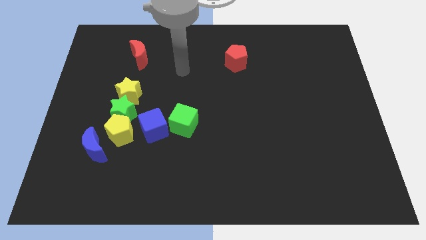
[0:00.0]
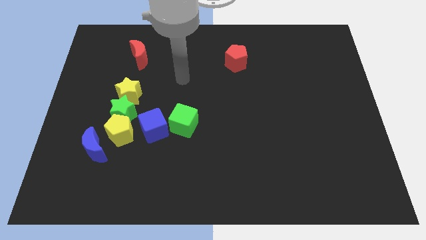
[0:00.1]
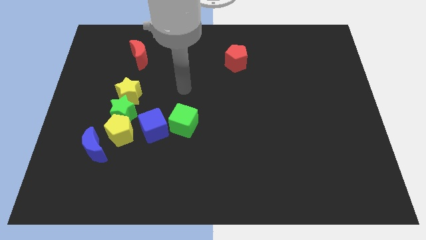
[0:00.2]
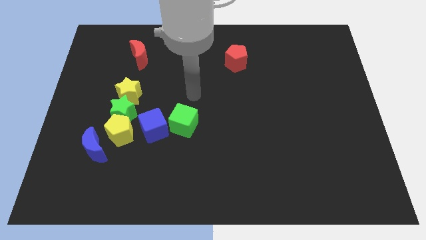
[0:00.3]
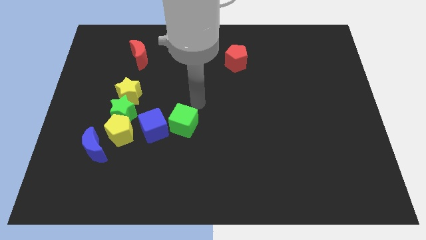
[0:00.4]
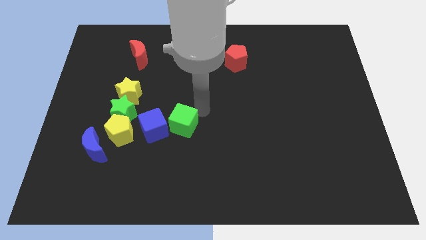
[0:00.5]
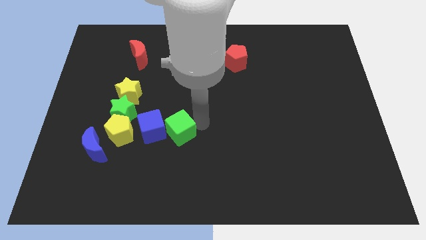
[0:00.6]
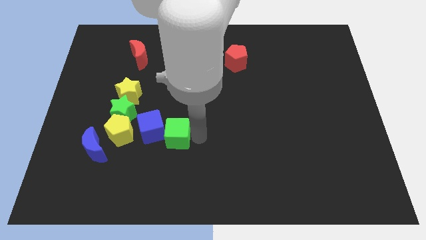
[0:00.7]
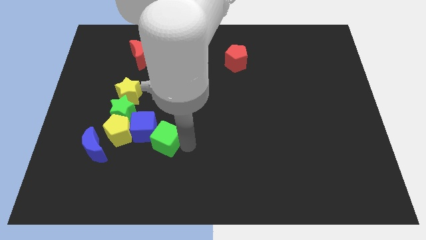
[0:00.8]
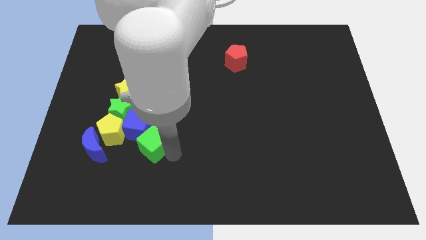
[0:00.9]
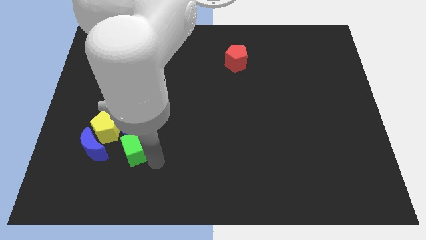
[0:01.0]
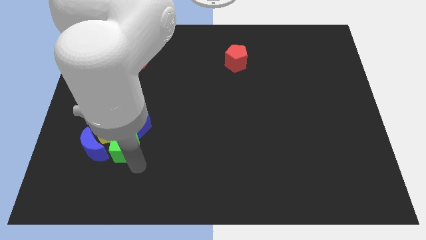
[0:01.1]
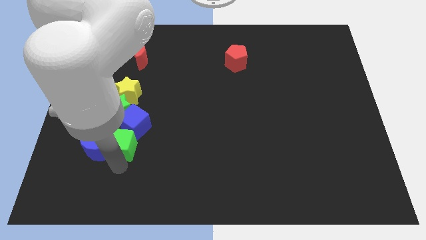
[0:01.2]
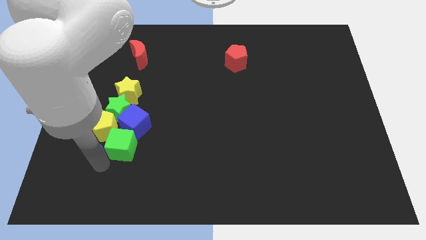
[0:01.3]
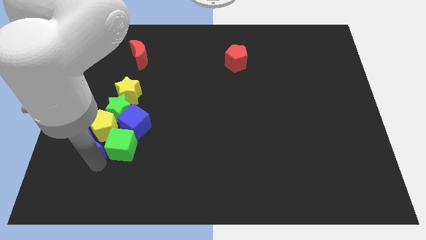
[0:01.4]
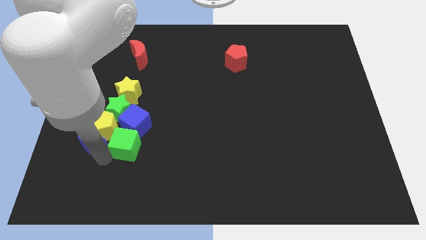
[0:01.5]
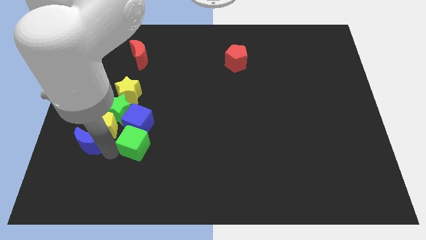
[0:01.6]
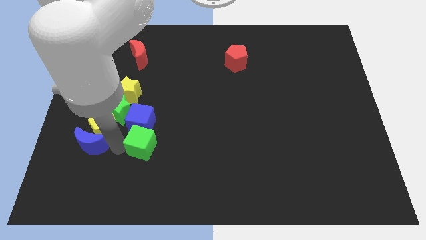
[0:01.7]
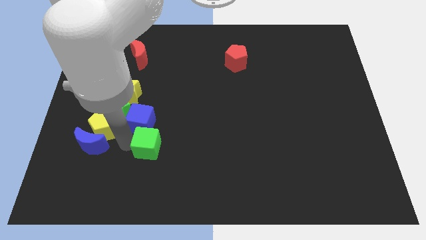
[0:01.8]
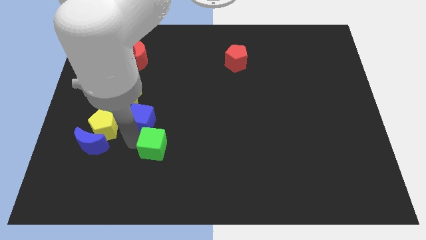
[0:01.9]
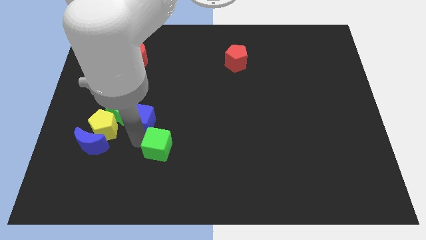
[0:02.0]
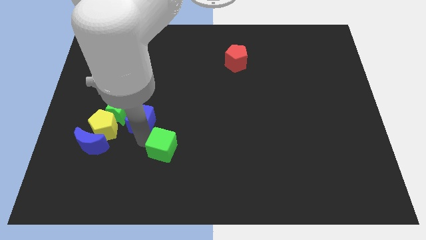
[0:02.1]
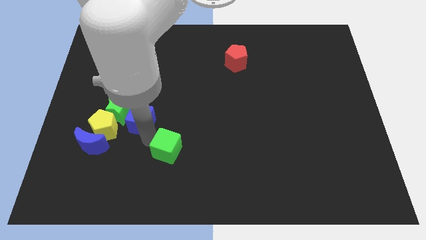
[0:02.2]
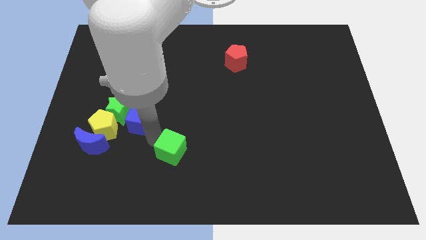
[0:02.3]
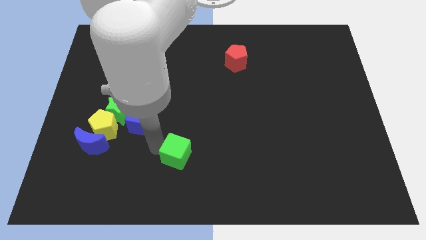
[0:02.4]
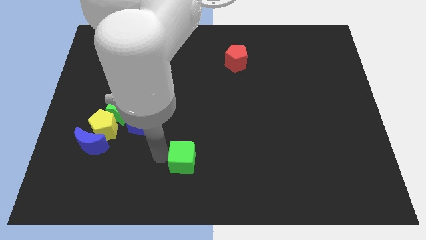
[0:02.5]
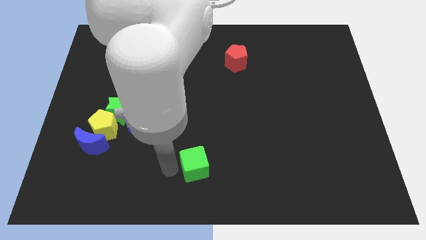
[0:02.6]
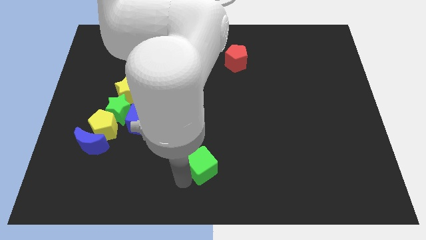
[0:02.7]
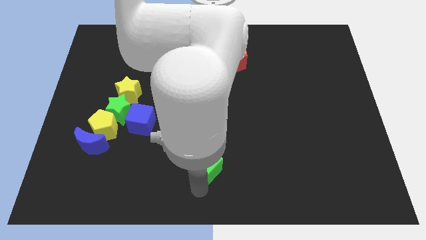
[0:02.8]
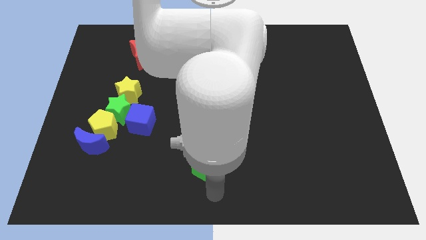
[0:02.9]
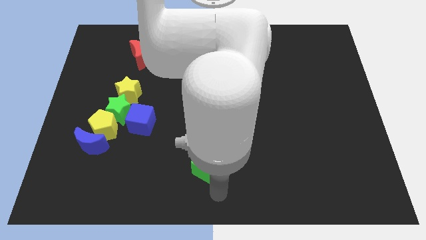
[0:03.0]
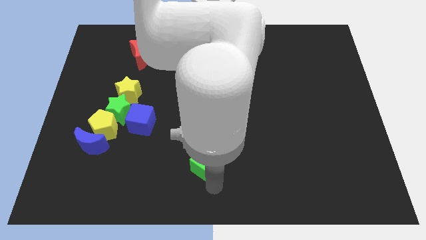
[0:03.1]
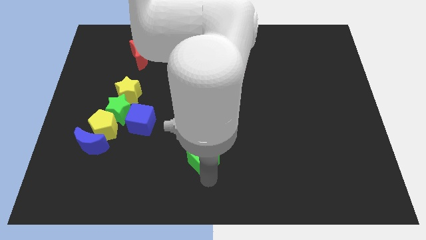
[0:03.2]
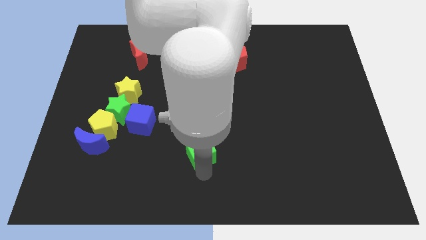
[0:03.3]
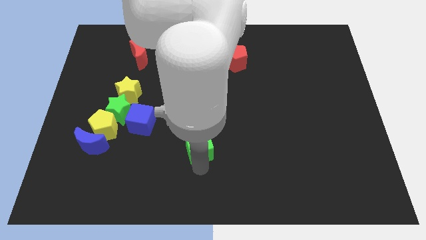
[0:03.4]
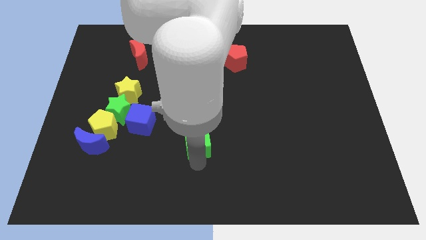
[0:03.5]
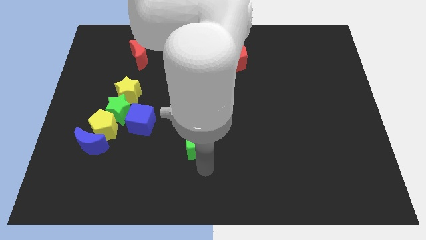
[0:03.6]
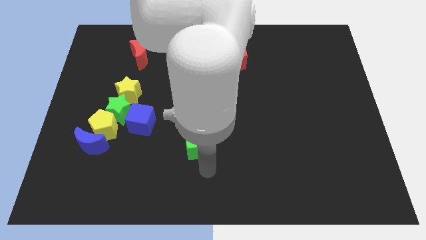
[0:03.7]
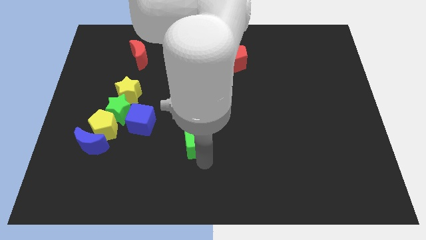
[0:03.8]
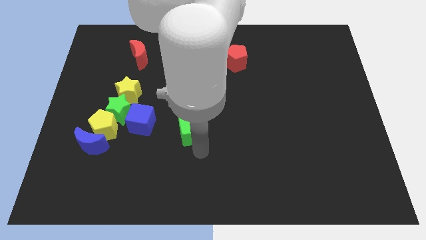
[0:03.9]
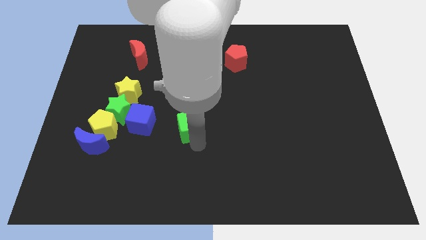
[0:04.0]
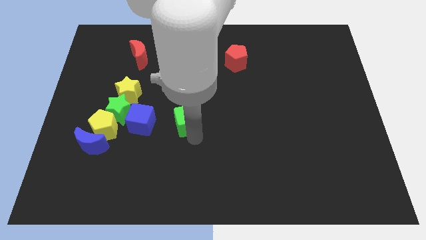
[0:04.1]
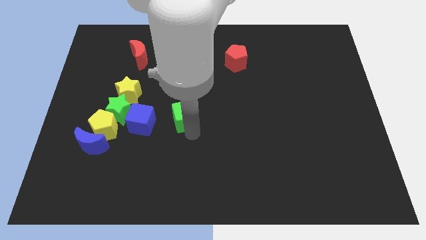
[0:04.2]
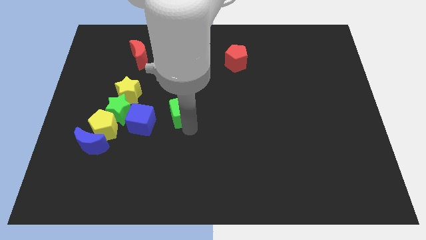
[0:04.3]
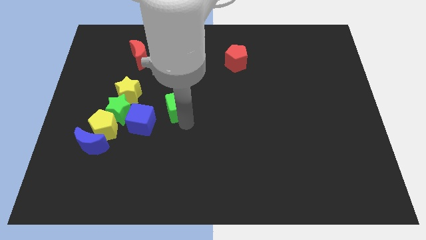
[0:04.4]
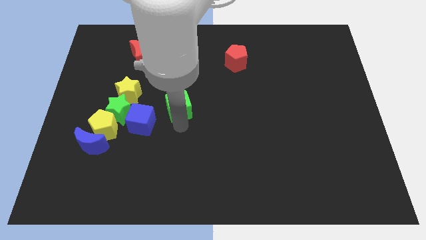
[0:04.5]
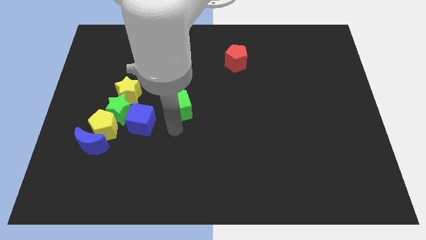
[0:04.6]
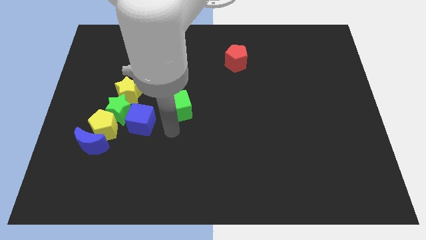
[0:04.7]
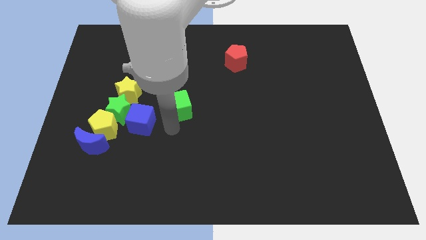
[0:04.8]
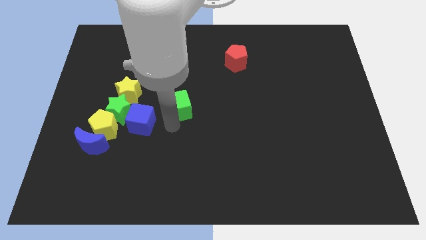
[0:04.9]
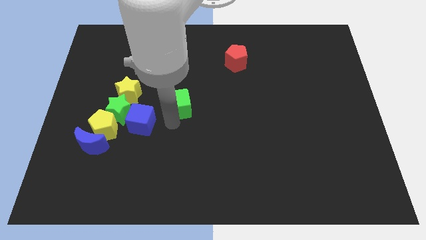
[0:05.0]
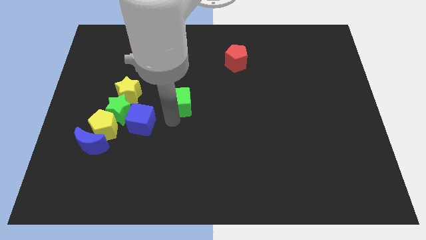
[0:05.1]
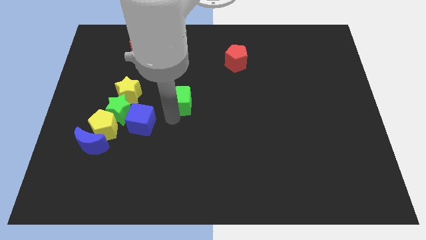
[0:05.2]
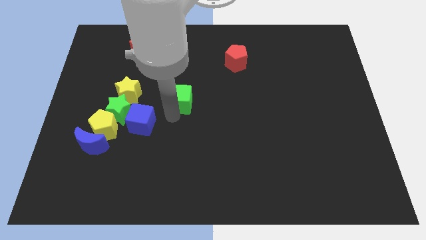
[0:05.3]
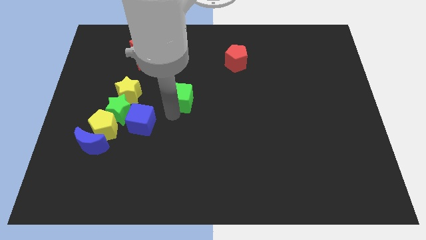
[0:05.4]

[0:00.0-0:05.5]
slide the green cube a bit upwards

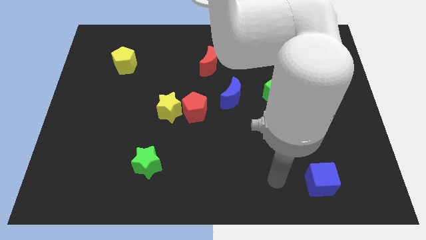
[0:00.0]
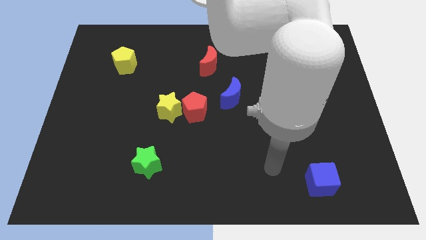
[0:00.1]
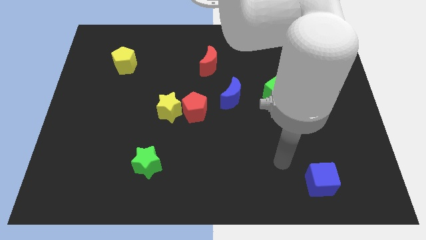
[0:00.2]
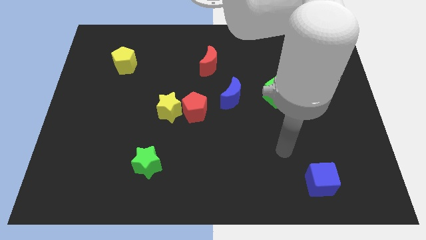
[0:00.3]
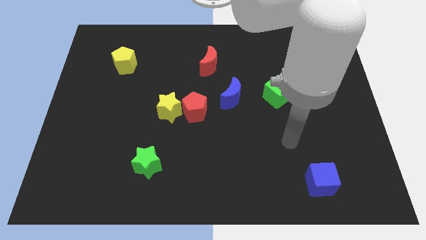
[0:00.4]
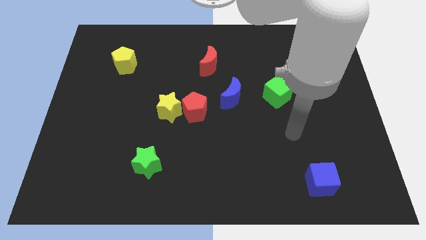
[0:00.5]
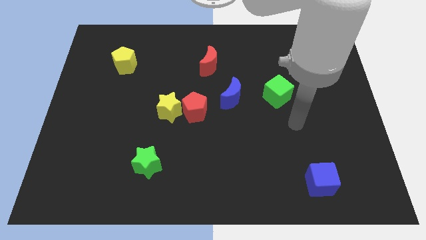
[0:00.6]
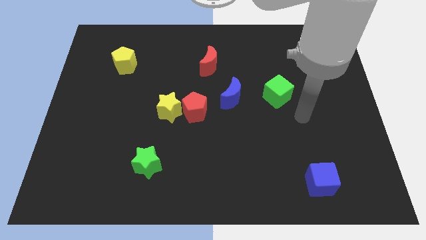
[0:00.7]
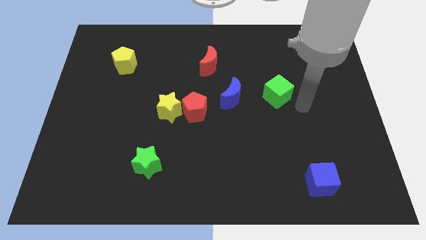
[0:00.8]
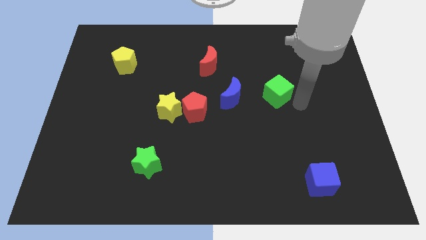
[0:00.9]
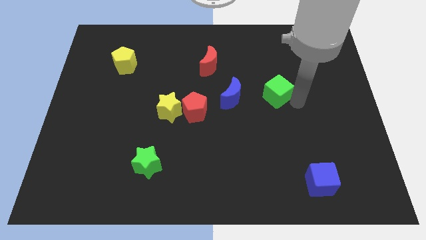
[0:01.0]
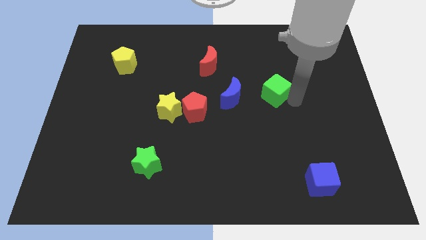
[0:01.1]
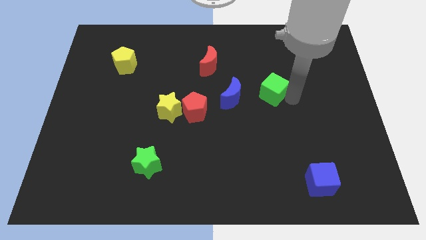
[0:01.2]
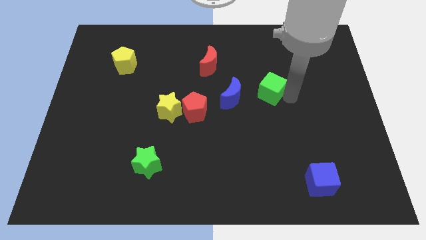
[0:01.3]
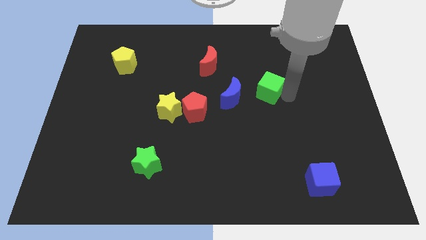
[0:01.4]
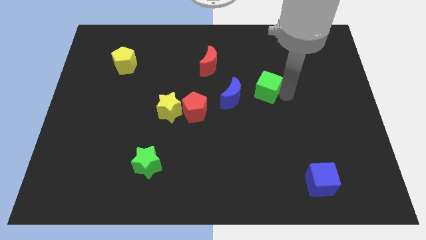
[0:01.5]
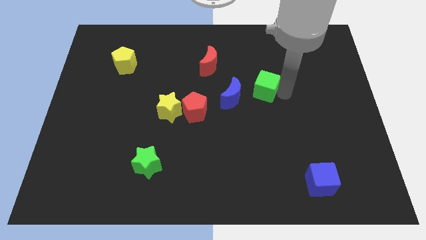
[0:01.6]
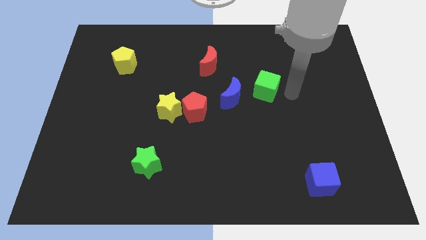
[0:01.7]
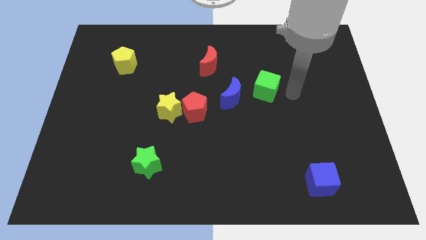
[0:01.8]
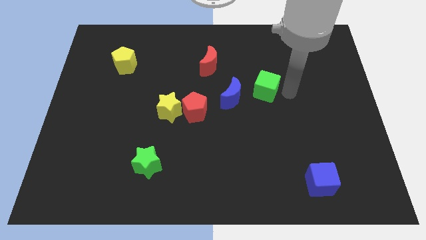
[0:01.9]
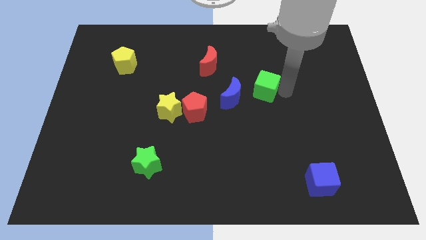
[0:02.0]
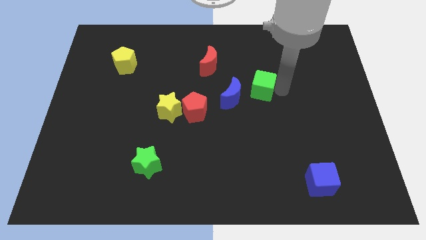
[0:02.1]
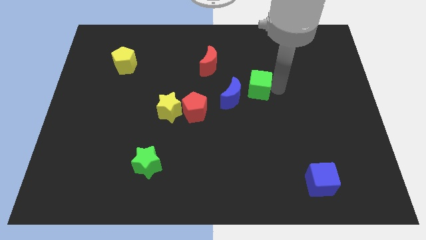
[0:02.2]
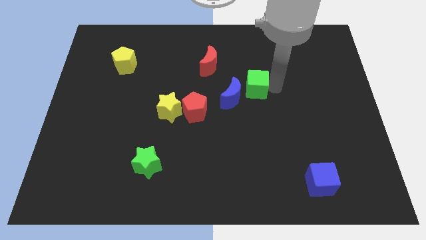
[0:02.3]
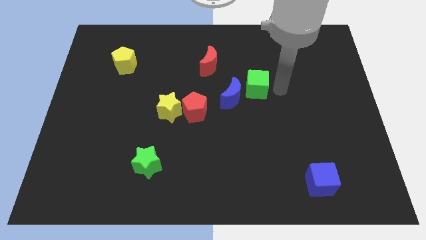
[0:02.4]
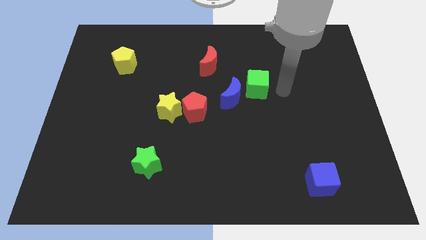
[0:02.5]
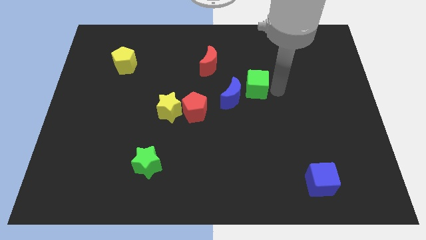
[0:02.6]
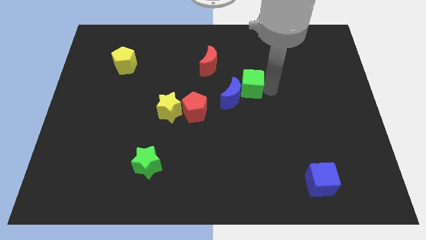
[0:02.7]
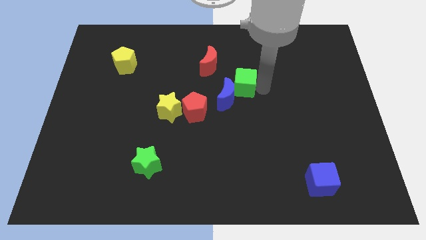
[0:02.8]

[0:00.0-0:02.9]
slightly move the green cube left

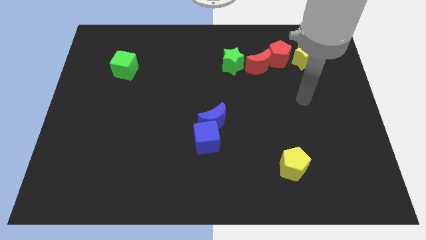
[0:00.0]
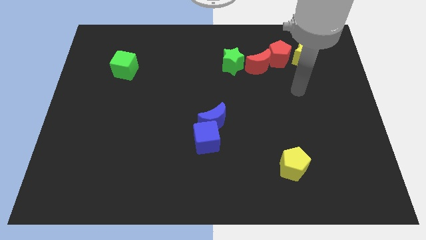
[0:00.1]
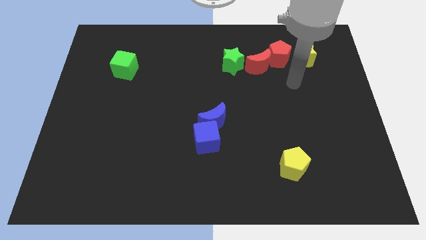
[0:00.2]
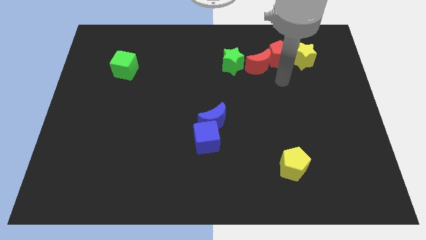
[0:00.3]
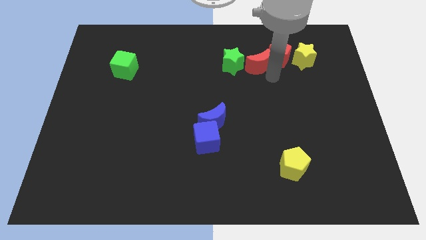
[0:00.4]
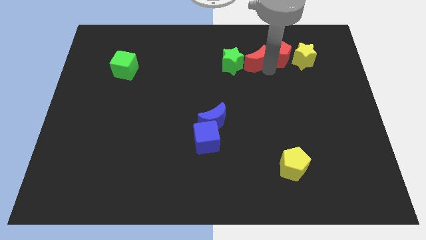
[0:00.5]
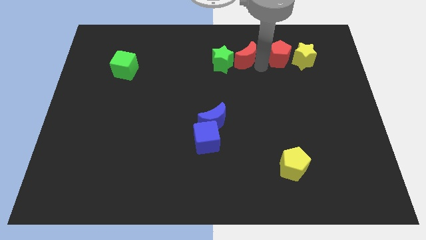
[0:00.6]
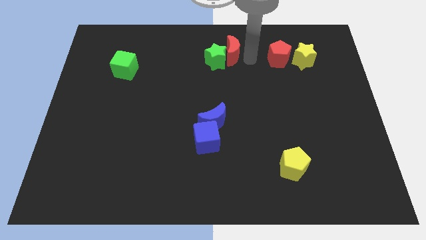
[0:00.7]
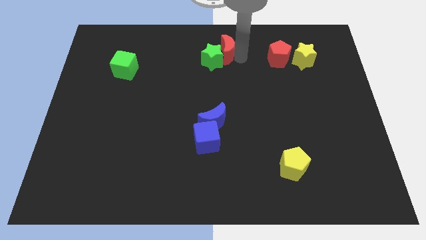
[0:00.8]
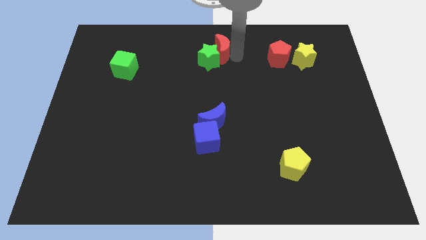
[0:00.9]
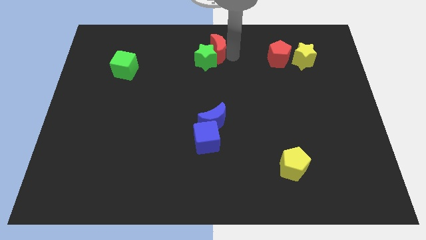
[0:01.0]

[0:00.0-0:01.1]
slide the green star a bit left
